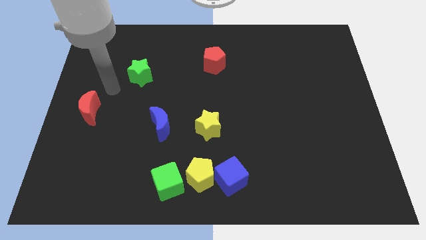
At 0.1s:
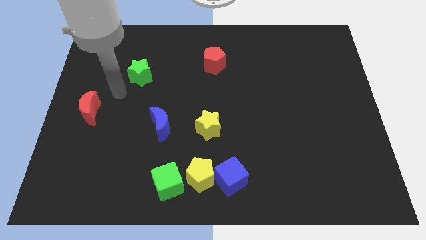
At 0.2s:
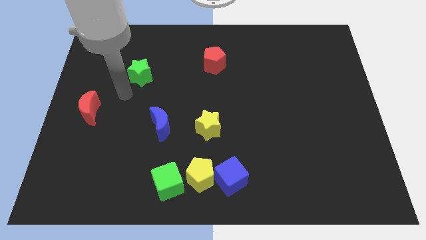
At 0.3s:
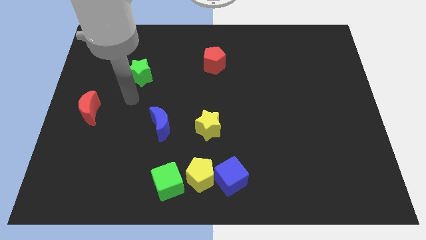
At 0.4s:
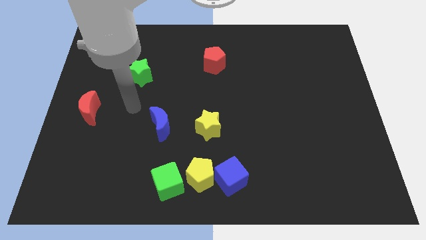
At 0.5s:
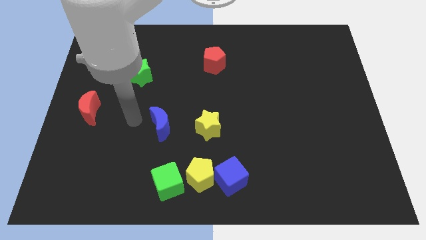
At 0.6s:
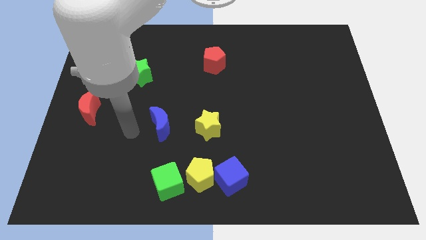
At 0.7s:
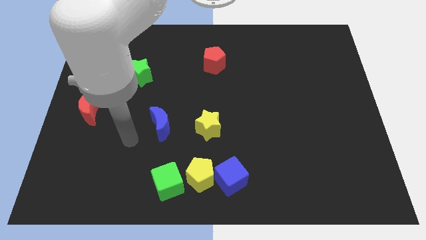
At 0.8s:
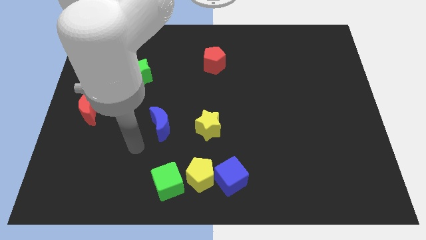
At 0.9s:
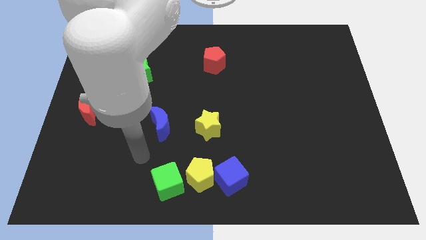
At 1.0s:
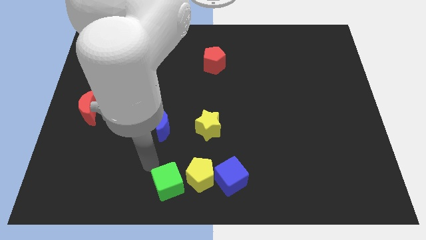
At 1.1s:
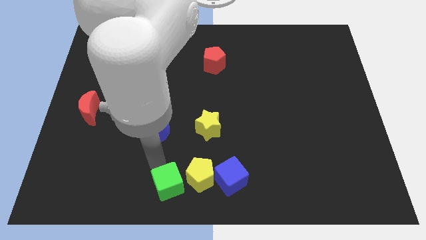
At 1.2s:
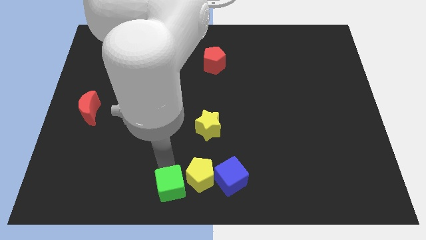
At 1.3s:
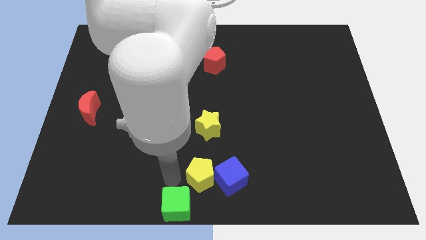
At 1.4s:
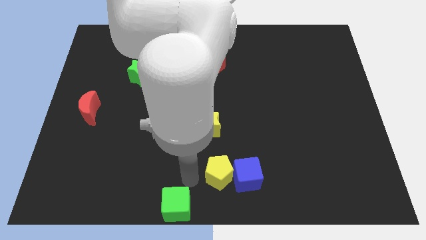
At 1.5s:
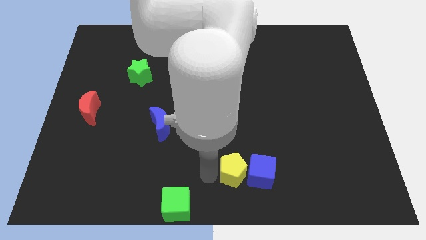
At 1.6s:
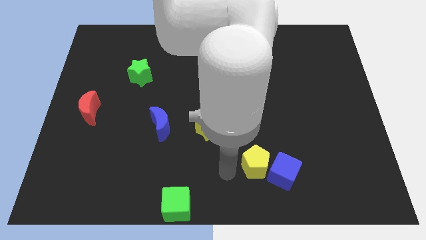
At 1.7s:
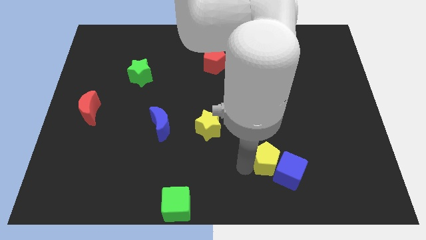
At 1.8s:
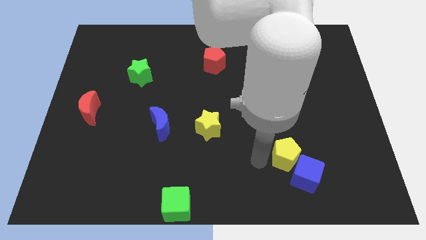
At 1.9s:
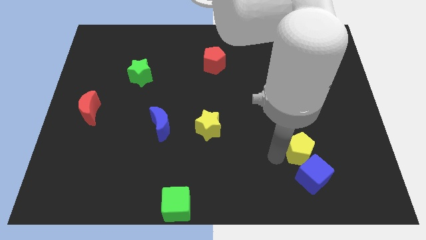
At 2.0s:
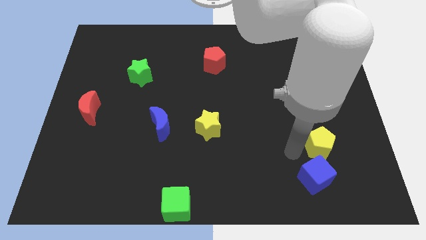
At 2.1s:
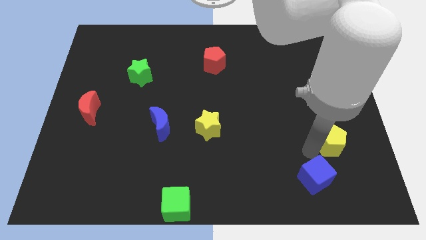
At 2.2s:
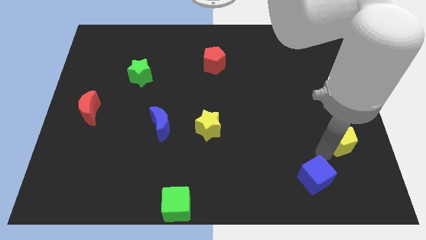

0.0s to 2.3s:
move the blue cube away from the yellow pentagon

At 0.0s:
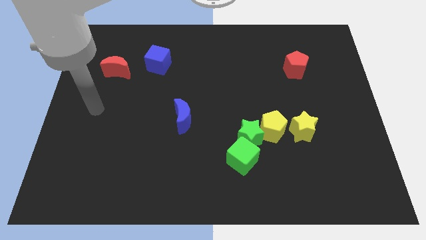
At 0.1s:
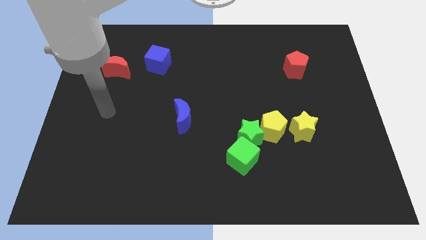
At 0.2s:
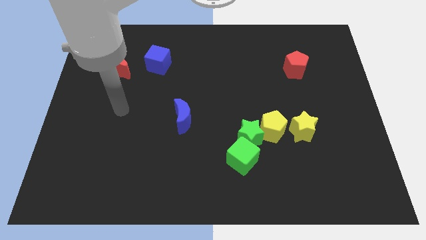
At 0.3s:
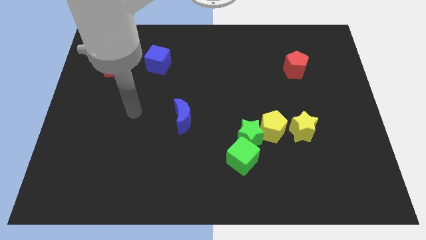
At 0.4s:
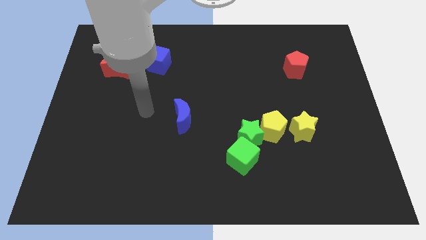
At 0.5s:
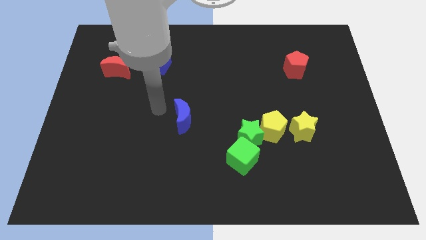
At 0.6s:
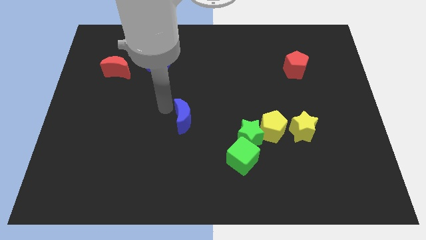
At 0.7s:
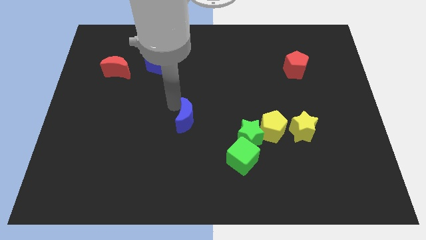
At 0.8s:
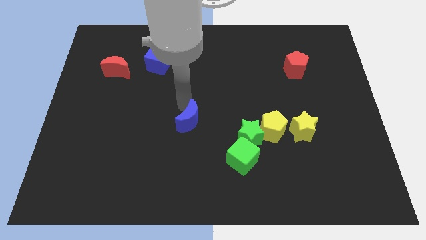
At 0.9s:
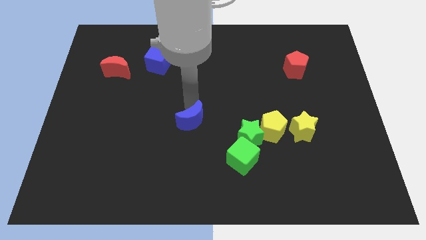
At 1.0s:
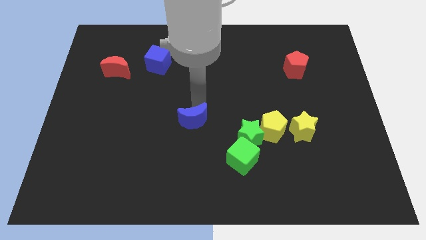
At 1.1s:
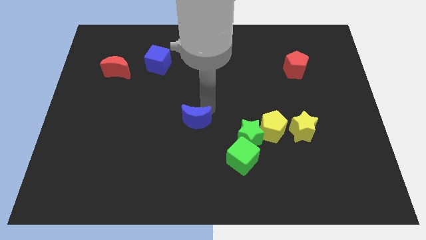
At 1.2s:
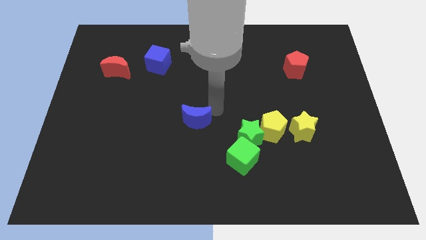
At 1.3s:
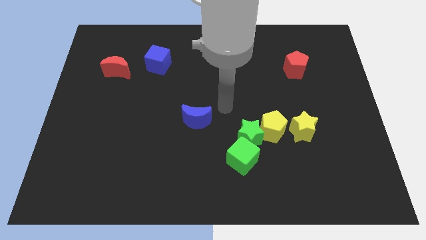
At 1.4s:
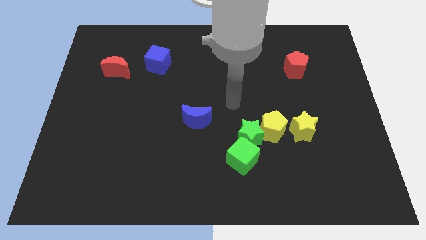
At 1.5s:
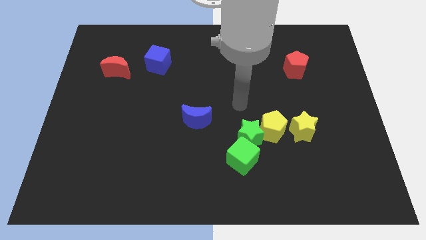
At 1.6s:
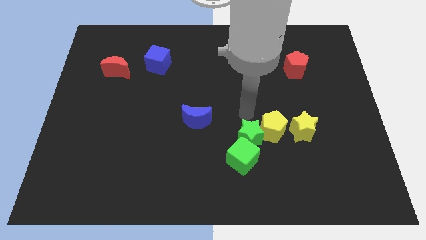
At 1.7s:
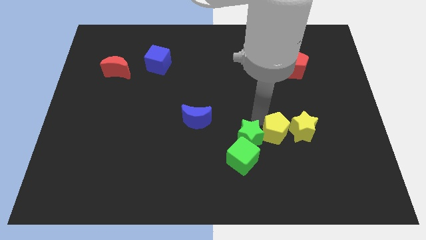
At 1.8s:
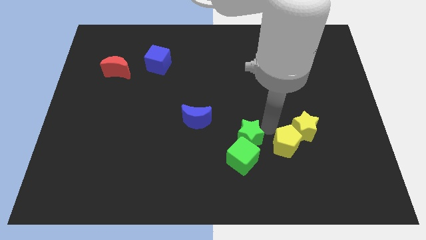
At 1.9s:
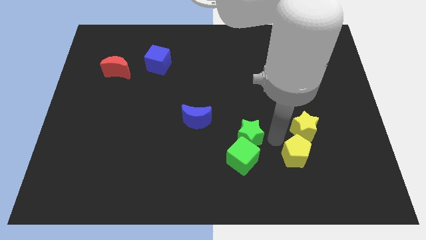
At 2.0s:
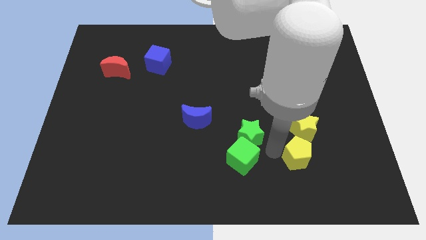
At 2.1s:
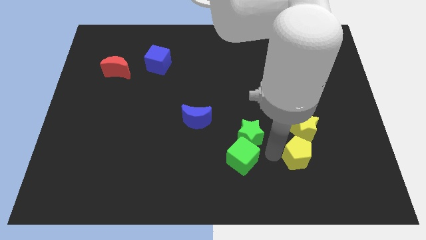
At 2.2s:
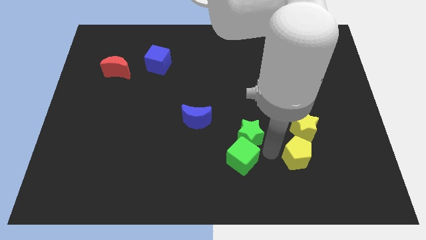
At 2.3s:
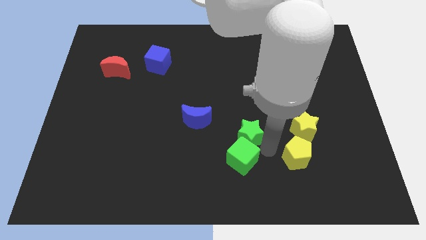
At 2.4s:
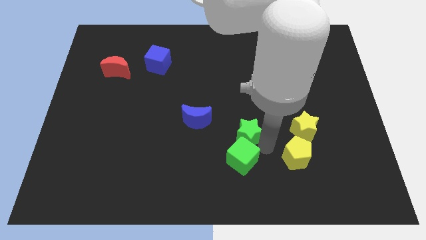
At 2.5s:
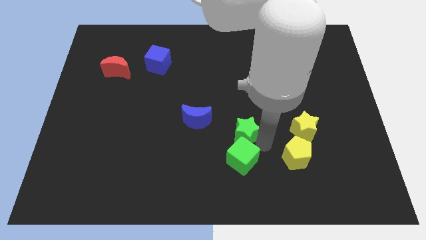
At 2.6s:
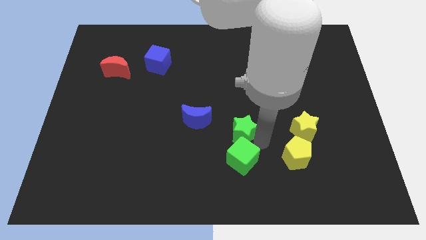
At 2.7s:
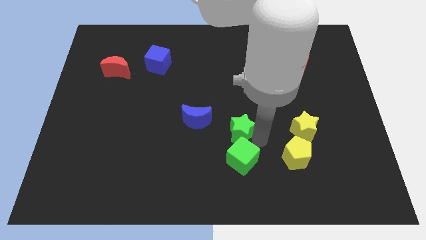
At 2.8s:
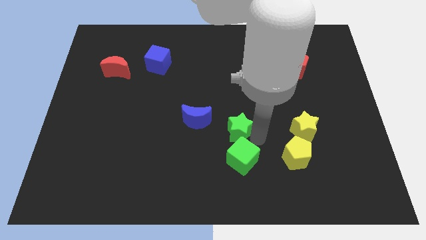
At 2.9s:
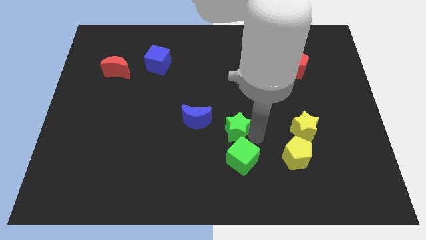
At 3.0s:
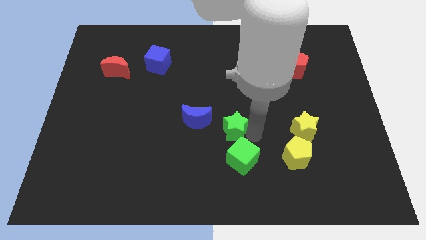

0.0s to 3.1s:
separate the green star from the green cube and yellow pentagon

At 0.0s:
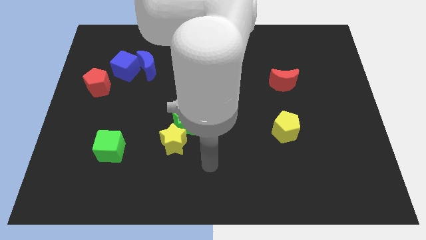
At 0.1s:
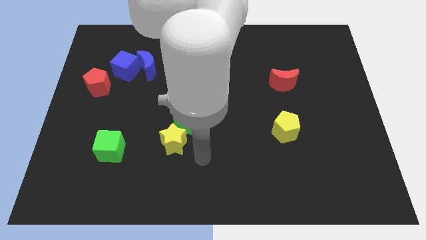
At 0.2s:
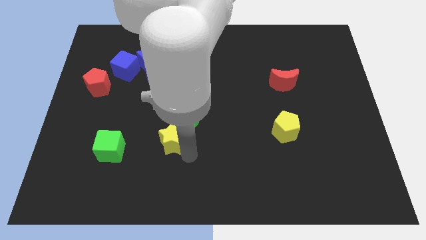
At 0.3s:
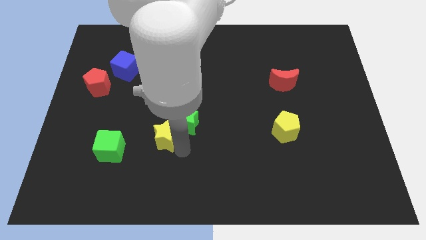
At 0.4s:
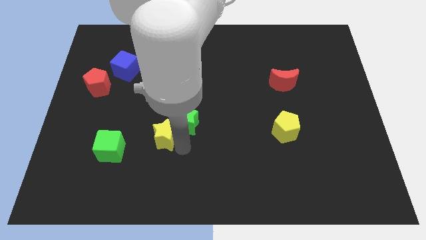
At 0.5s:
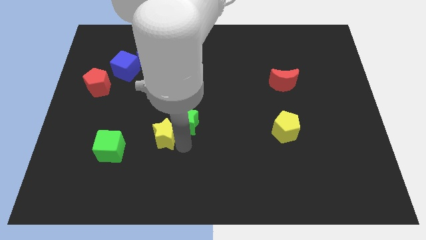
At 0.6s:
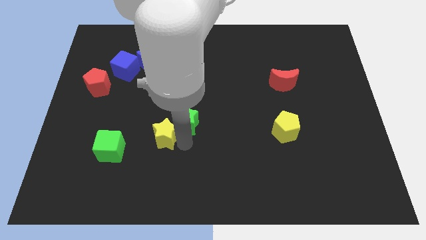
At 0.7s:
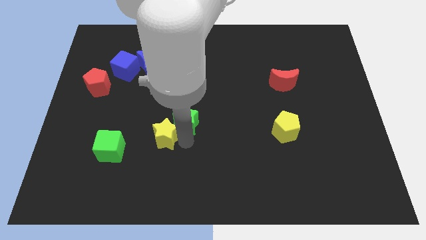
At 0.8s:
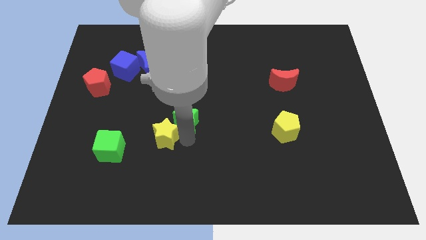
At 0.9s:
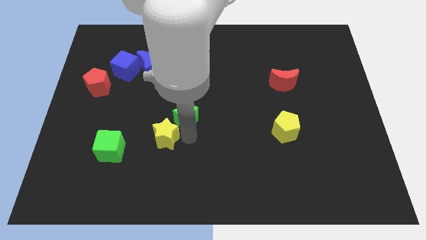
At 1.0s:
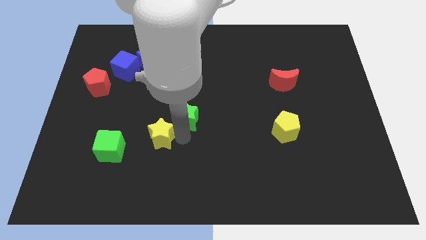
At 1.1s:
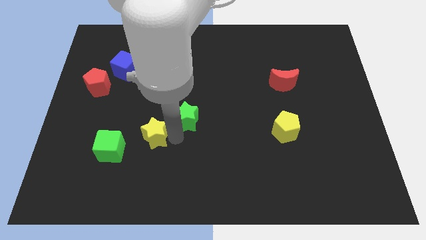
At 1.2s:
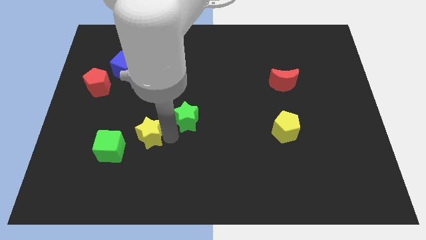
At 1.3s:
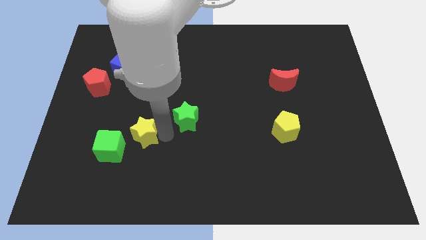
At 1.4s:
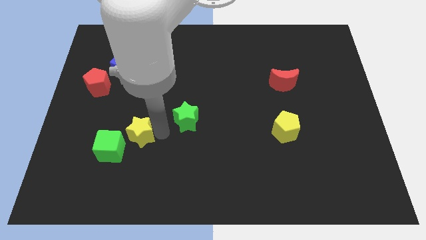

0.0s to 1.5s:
pull the green star apart from the yellow star

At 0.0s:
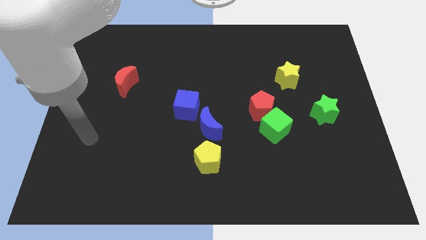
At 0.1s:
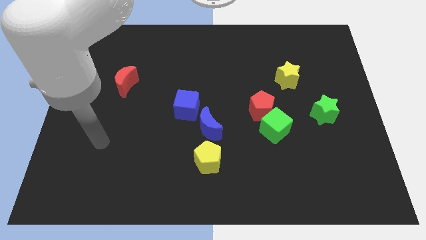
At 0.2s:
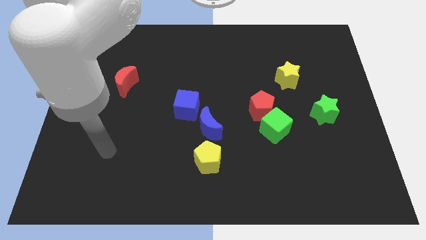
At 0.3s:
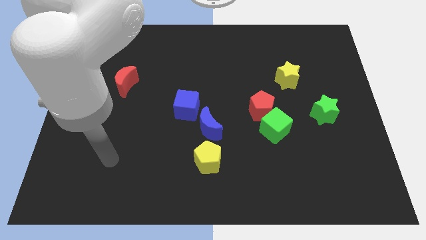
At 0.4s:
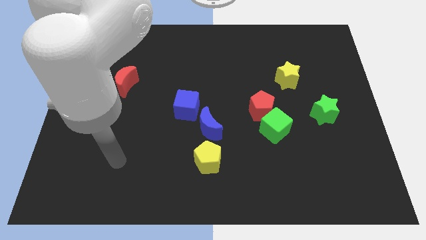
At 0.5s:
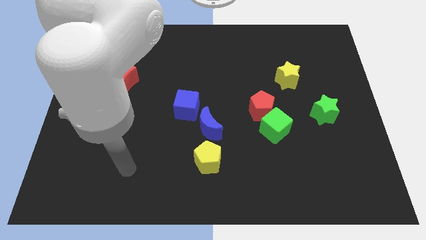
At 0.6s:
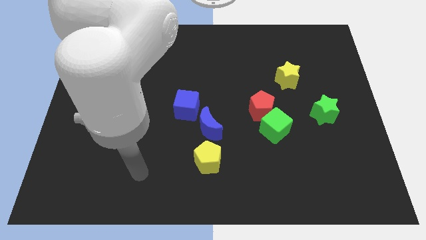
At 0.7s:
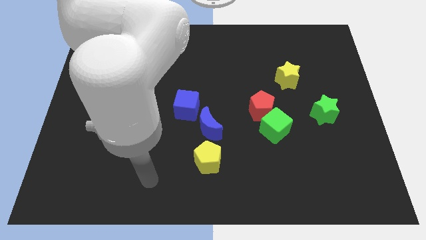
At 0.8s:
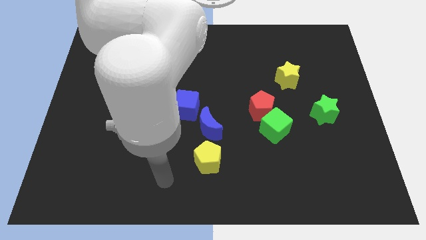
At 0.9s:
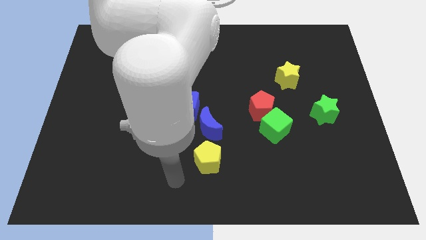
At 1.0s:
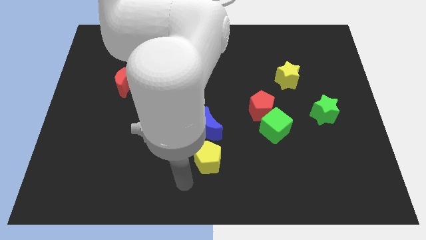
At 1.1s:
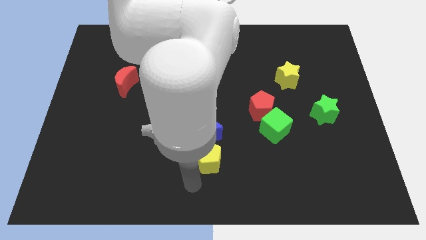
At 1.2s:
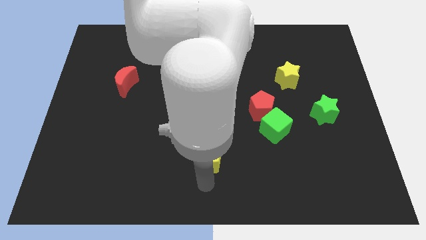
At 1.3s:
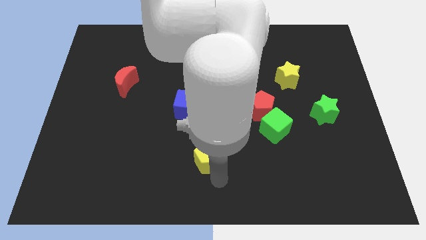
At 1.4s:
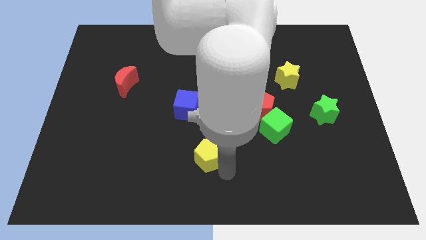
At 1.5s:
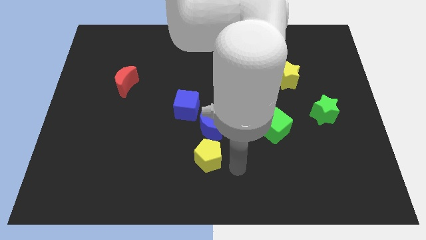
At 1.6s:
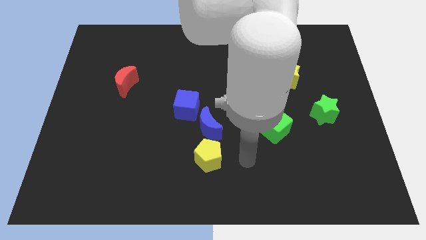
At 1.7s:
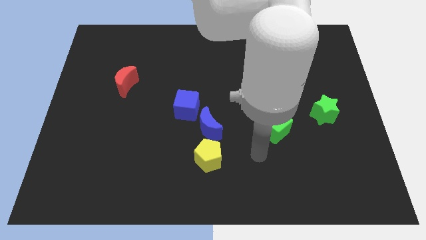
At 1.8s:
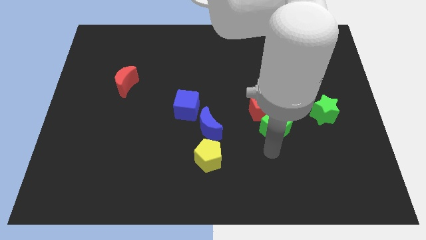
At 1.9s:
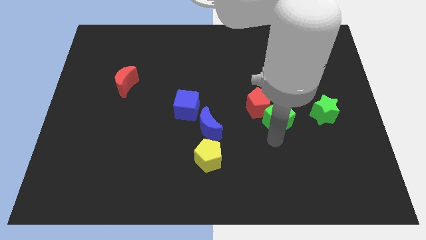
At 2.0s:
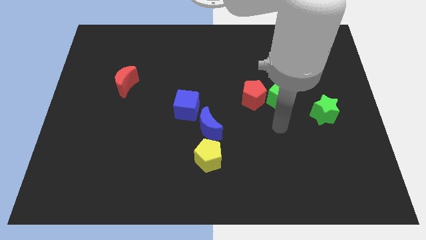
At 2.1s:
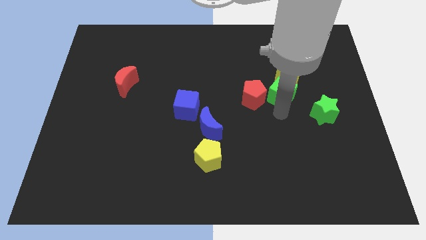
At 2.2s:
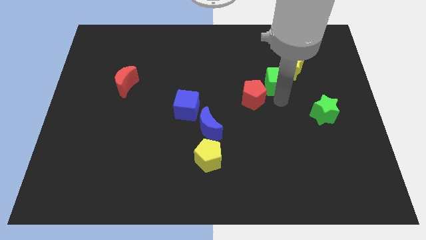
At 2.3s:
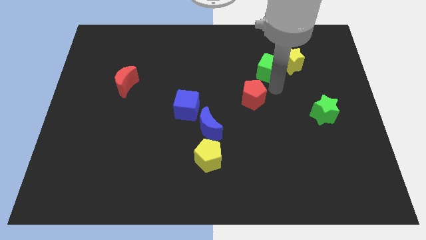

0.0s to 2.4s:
separate the red pentagon from the green cube
